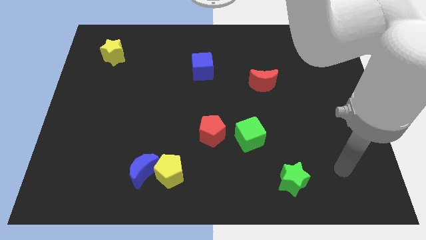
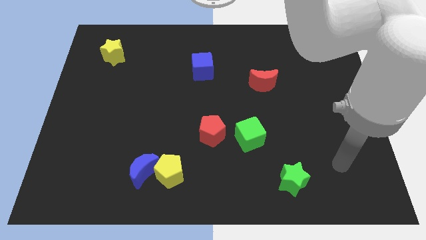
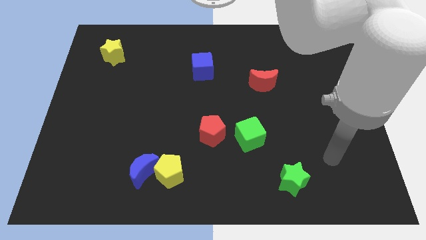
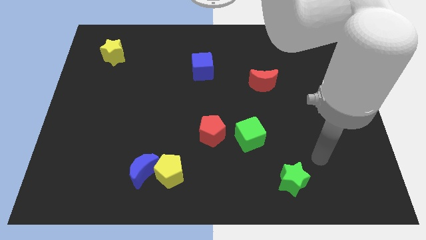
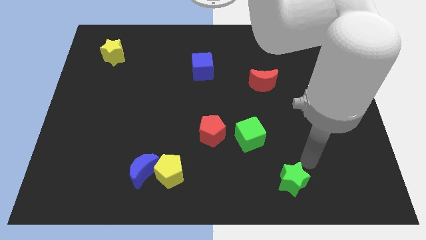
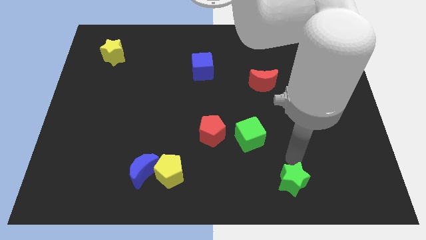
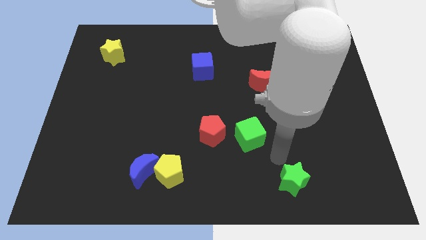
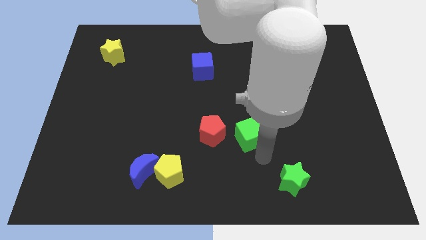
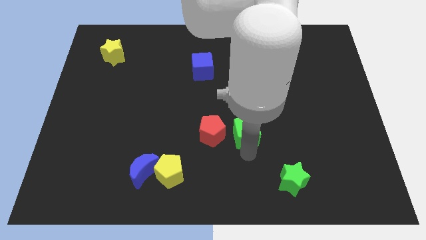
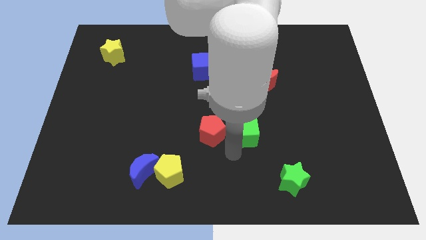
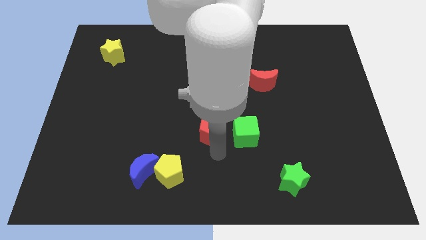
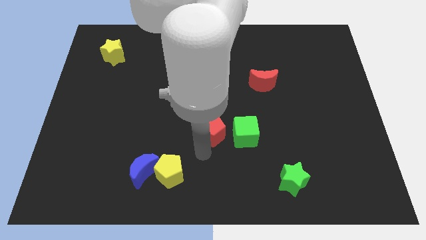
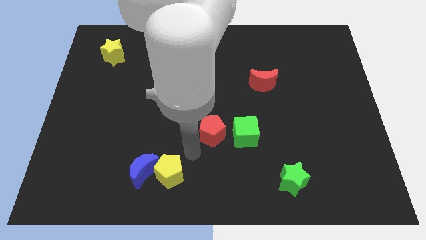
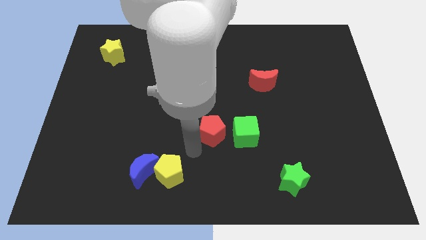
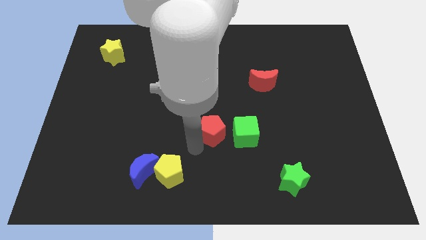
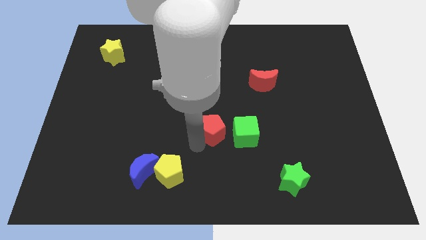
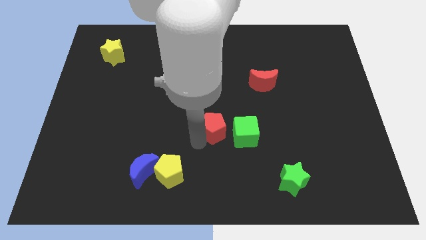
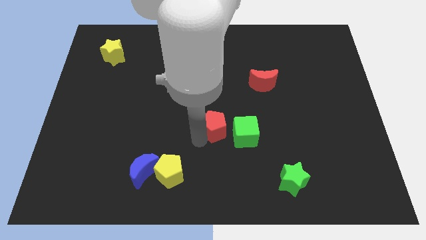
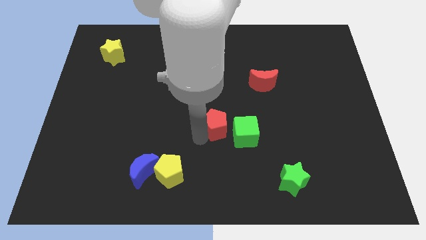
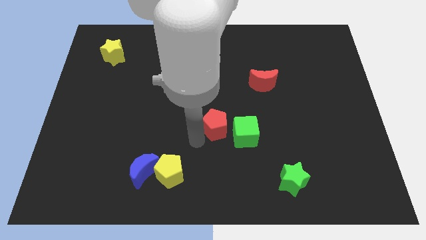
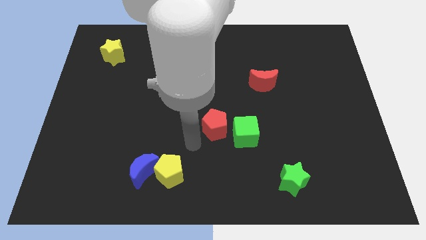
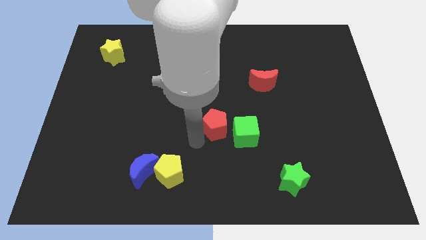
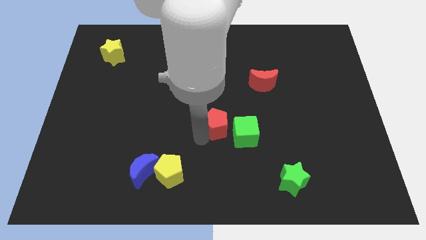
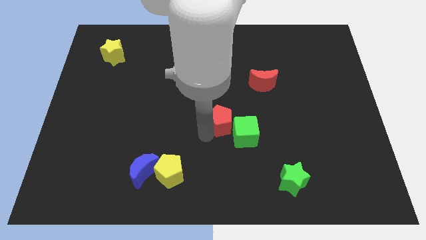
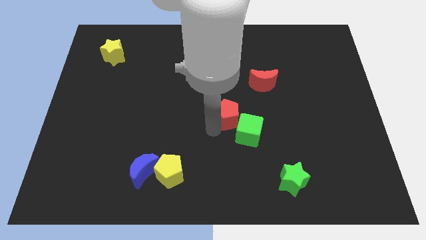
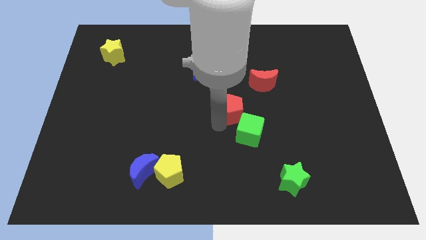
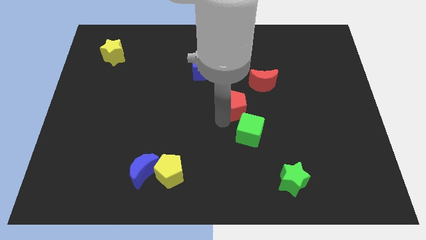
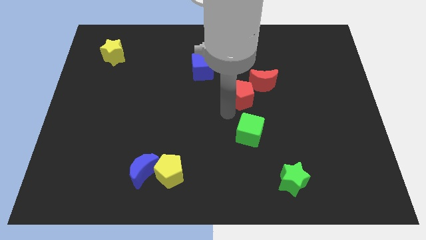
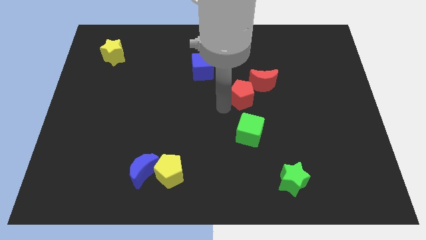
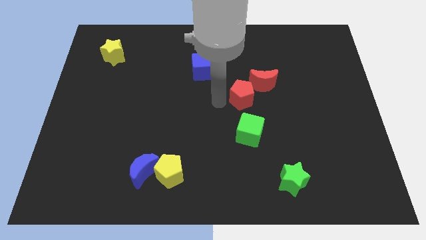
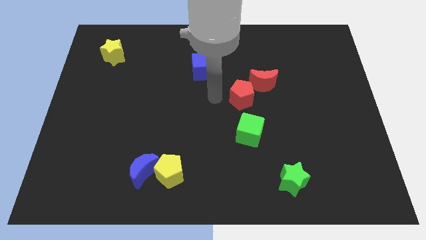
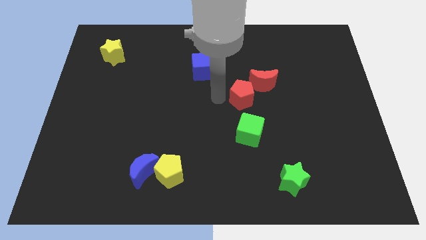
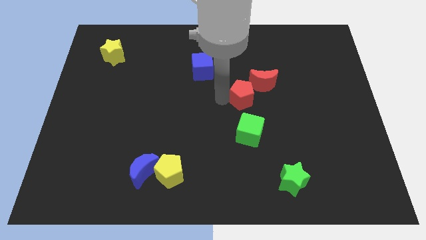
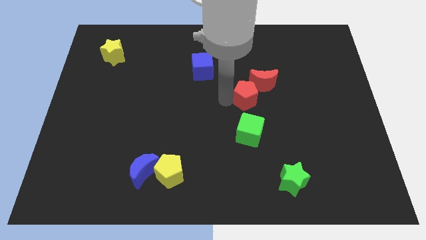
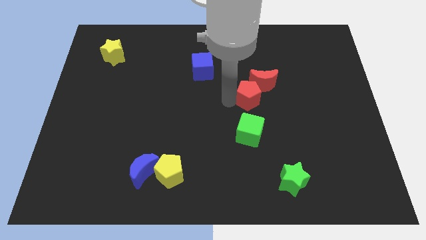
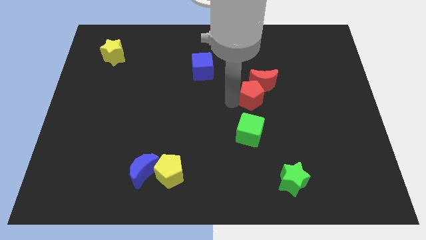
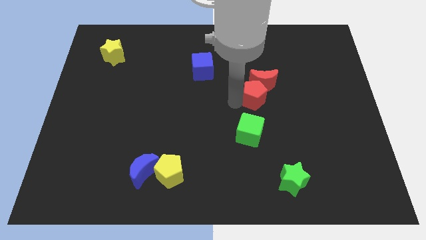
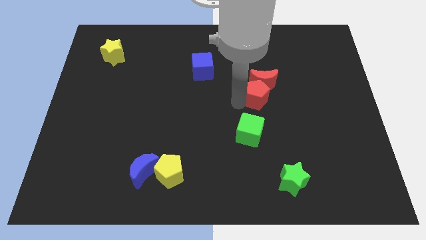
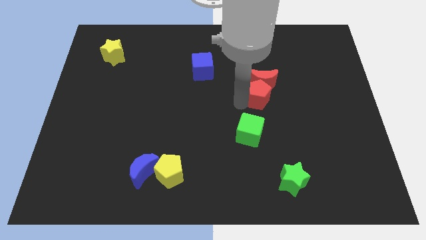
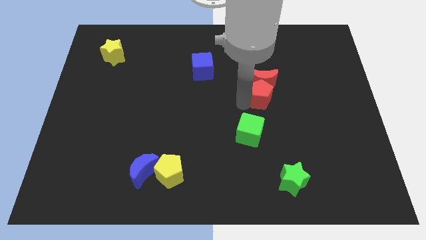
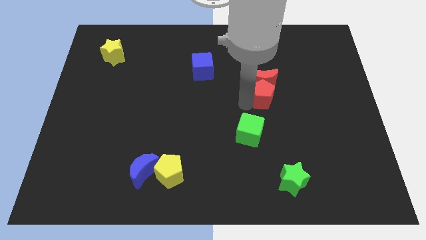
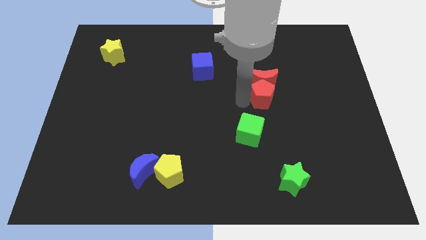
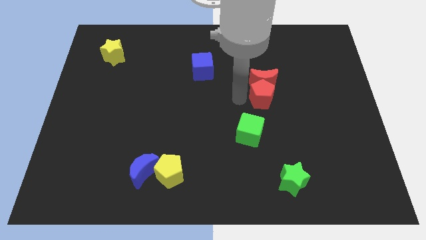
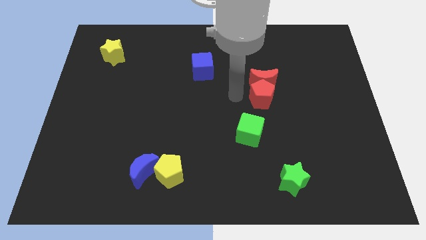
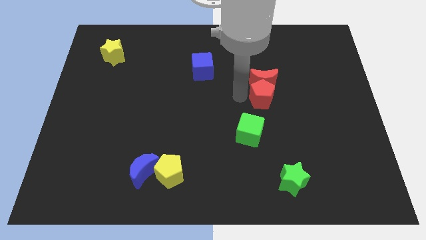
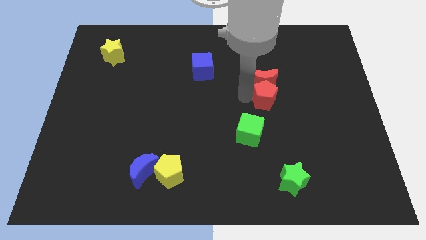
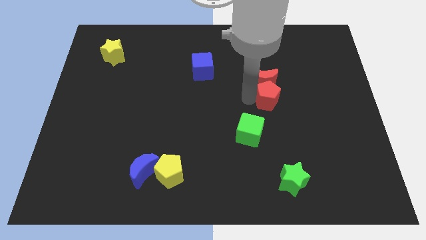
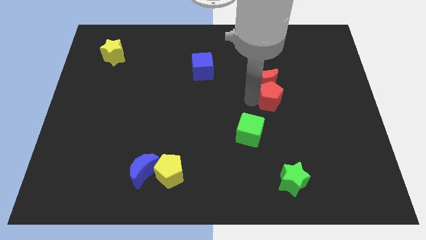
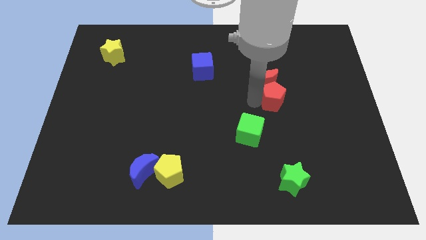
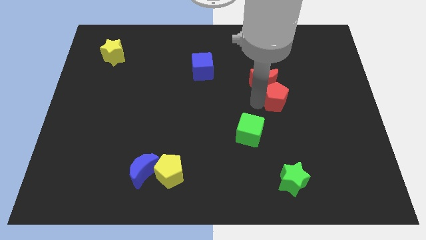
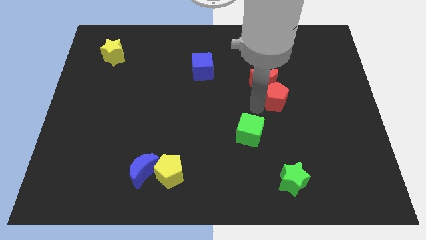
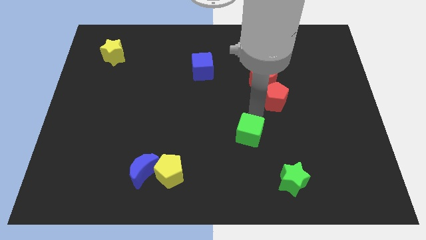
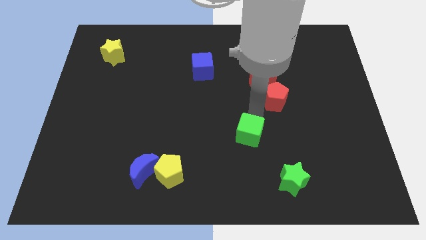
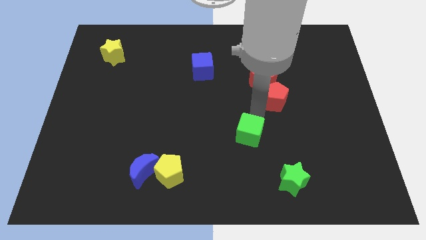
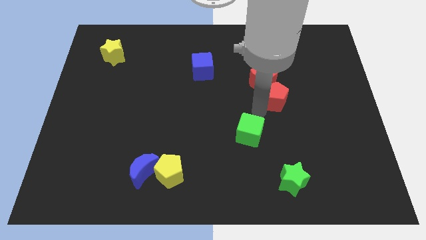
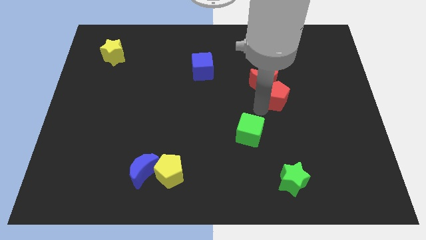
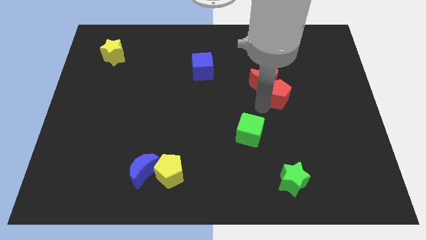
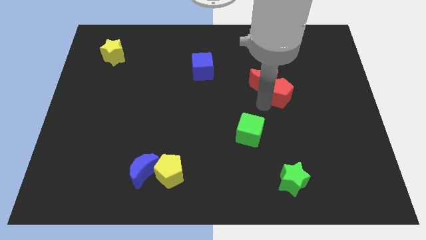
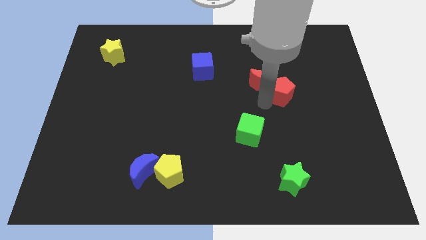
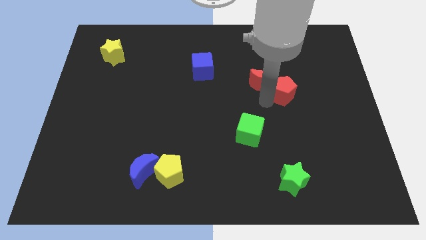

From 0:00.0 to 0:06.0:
slide the red pentagon upwards and to the right

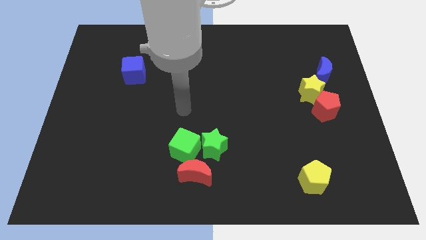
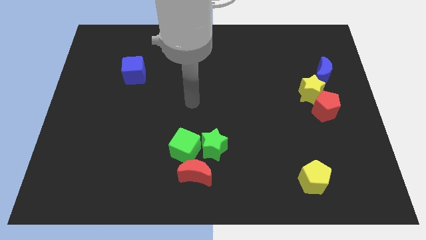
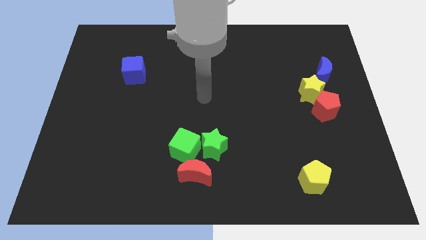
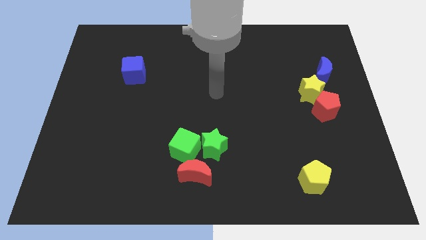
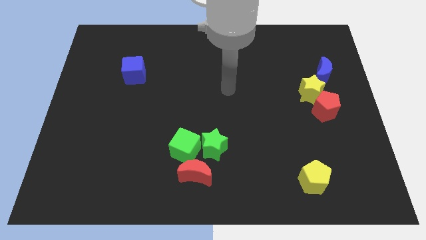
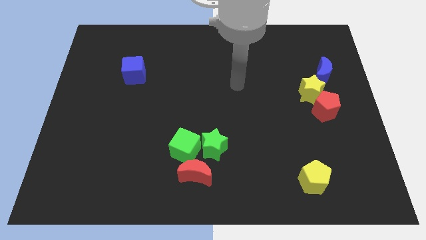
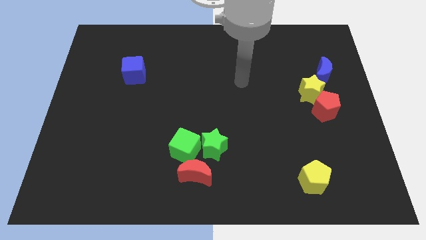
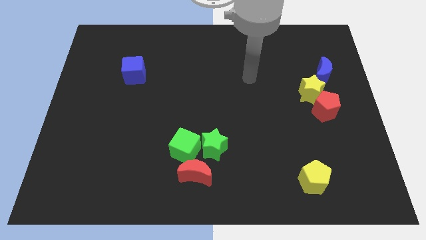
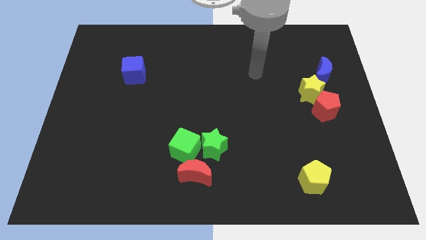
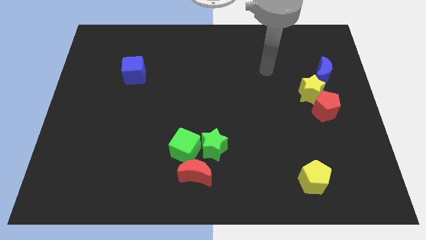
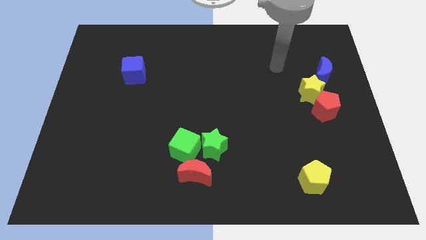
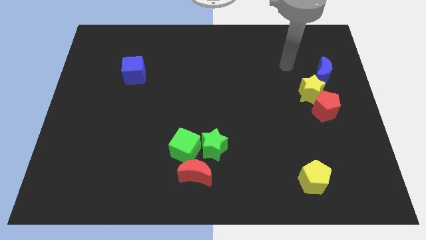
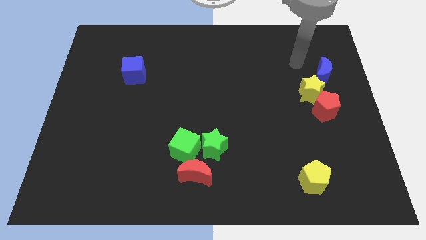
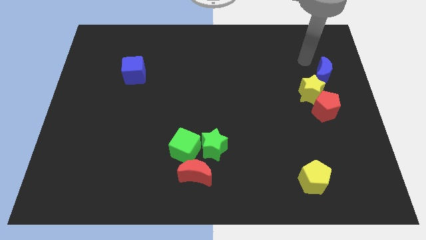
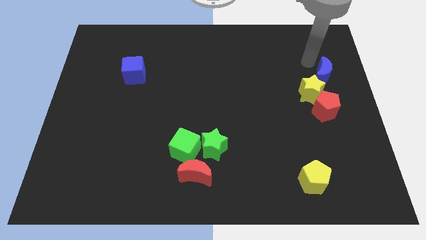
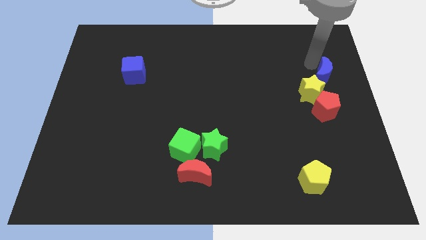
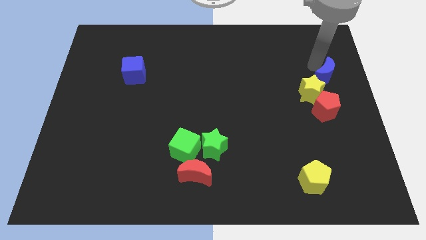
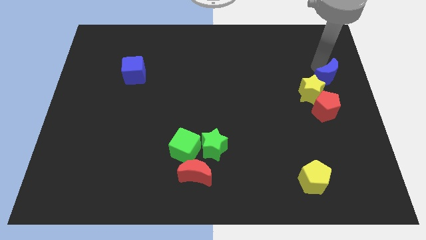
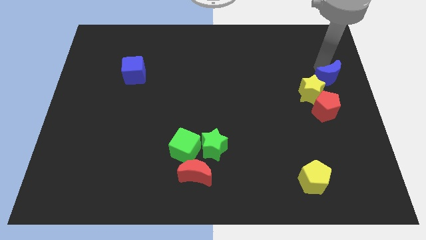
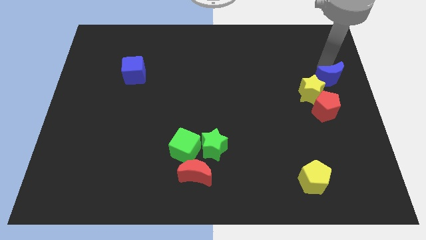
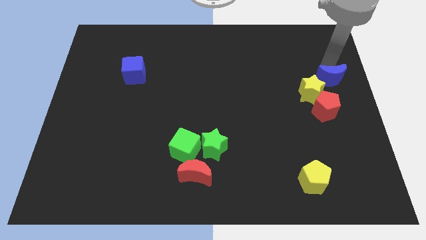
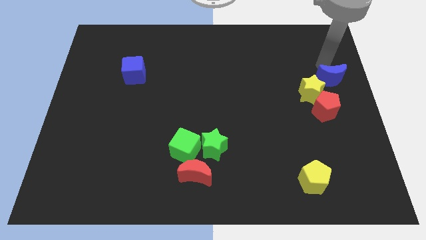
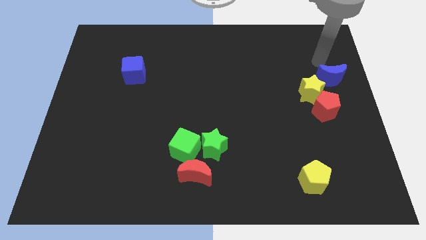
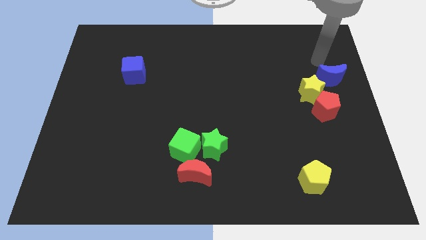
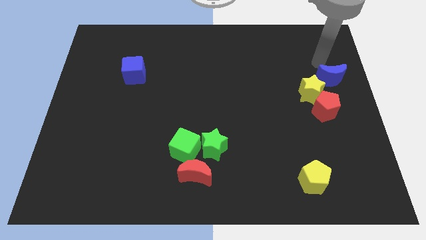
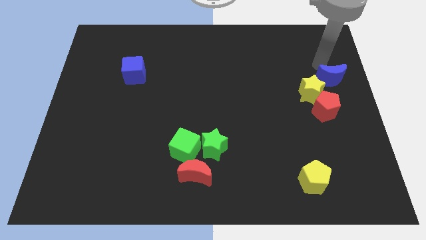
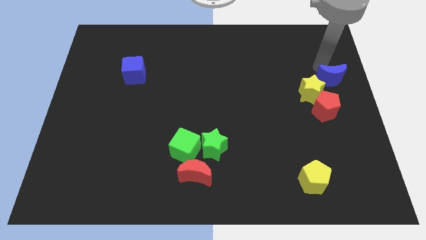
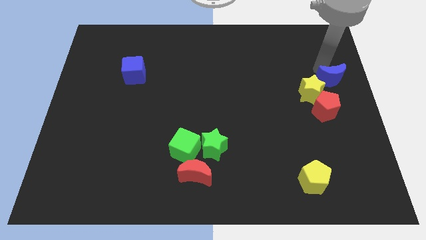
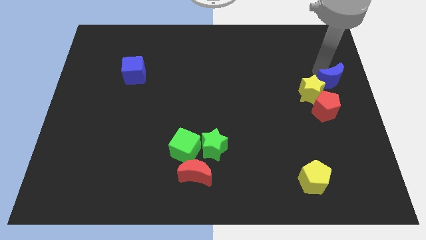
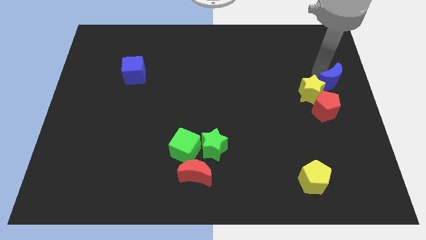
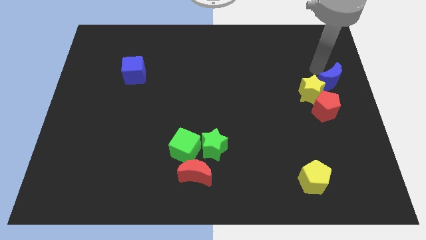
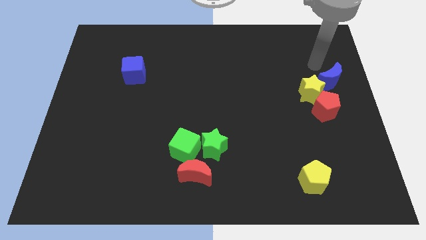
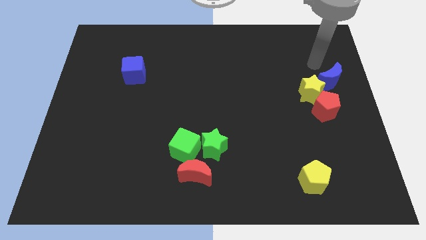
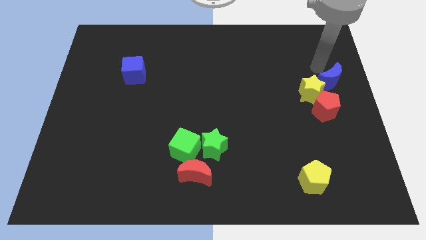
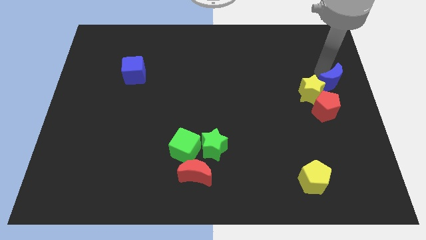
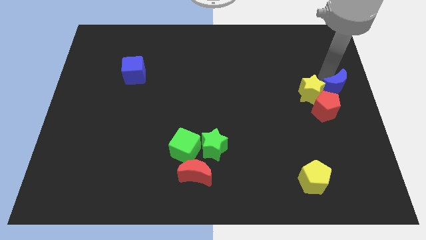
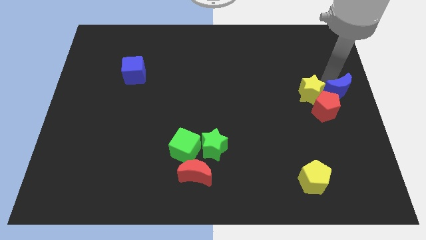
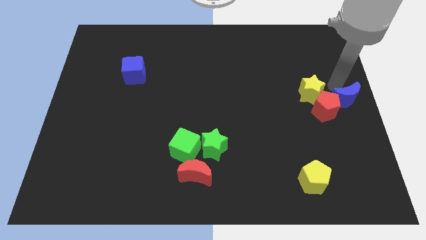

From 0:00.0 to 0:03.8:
push the blue moon slightly down
